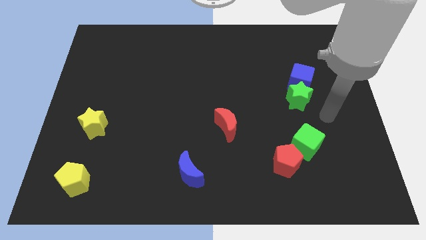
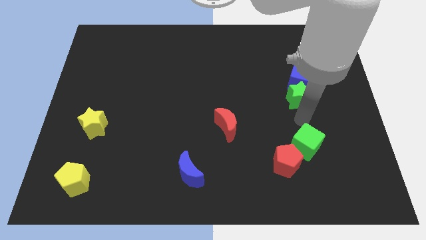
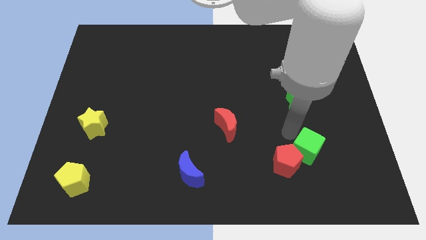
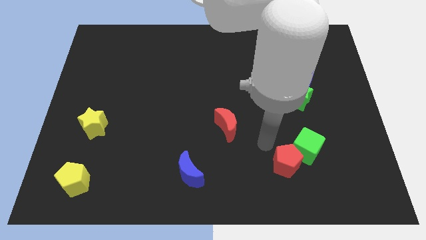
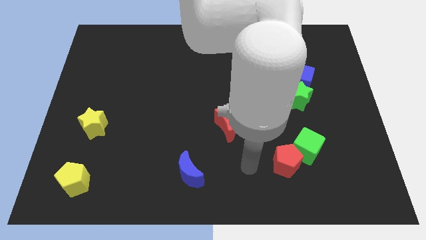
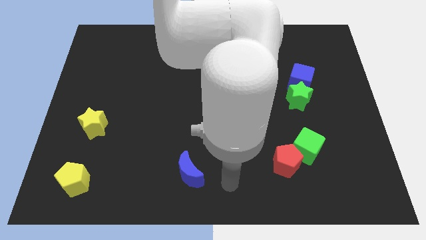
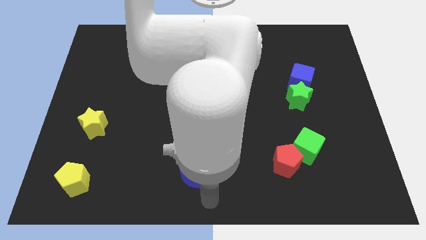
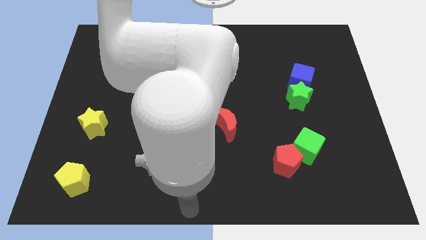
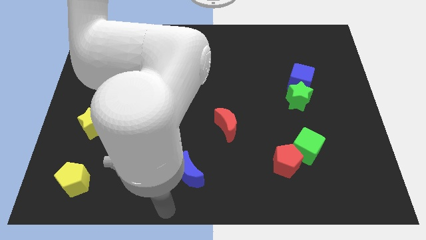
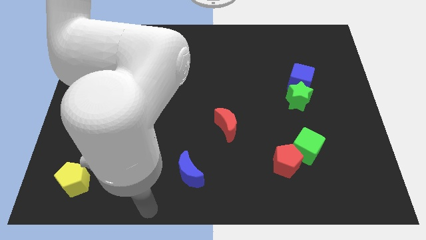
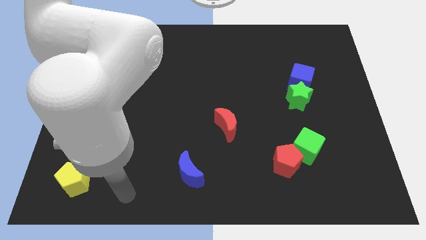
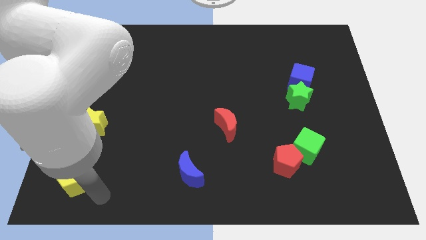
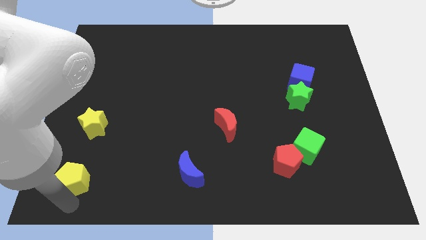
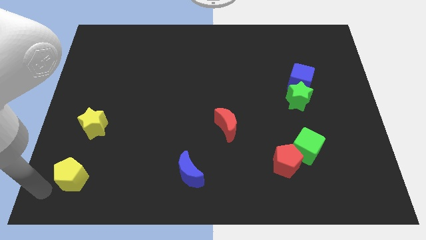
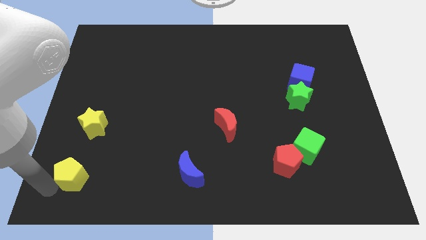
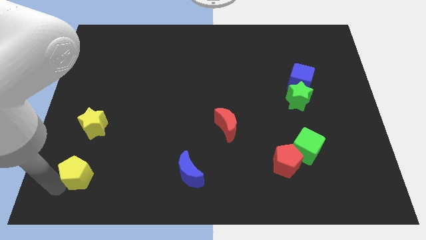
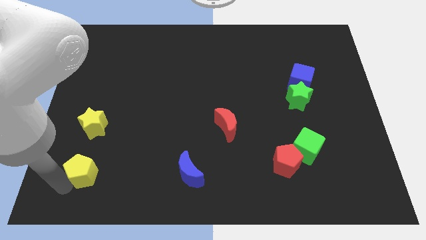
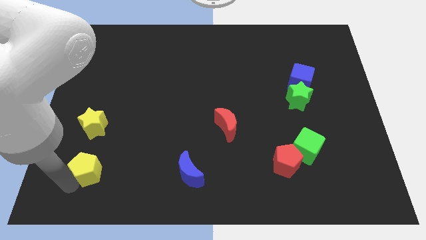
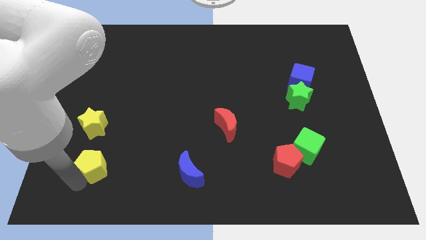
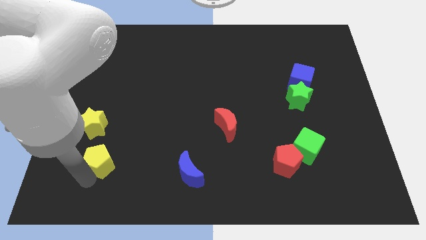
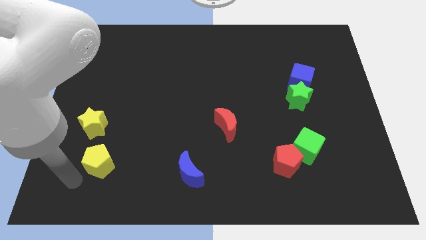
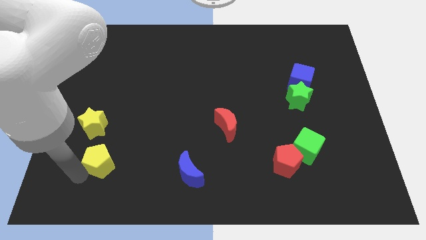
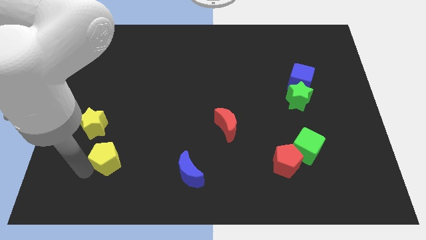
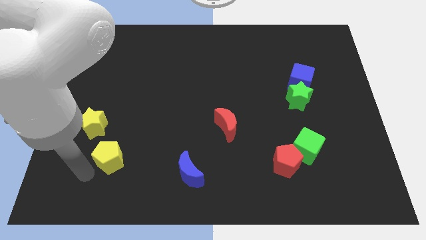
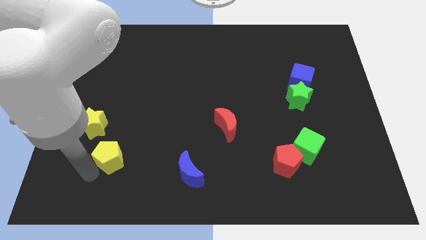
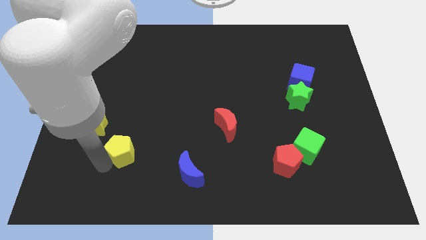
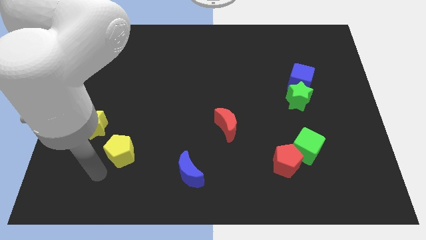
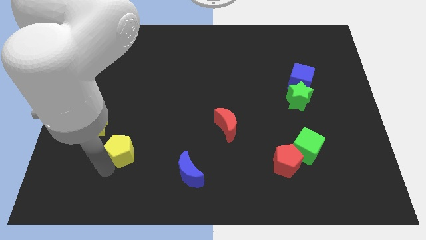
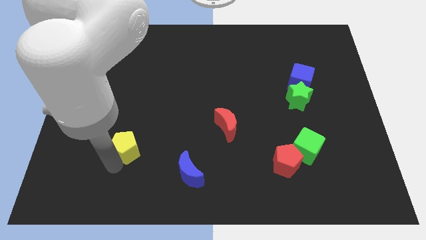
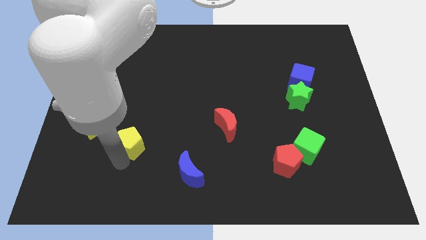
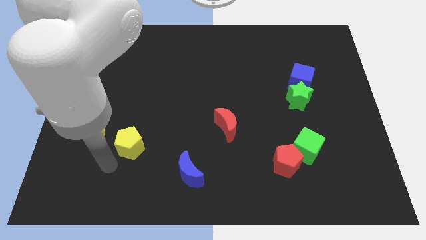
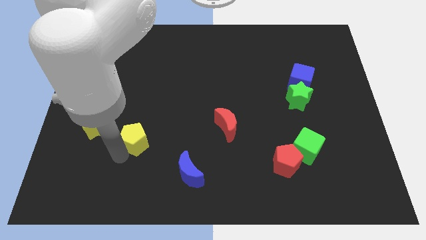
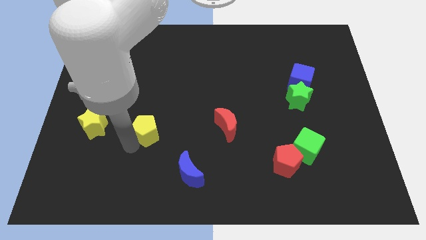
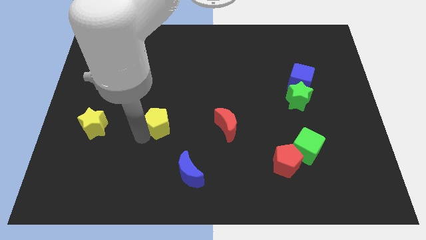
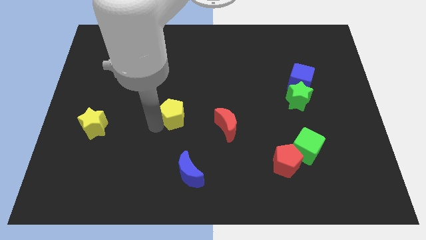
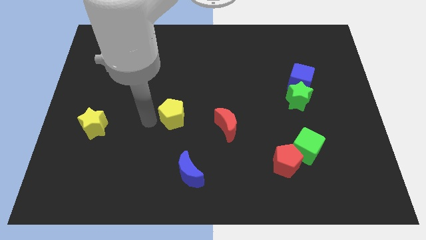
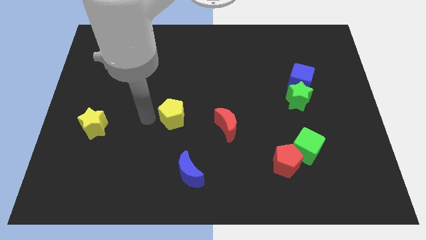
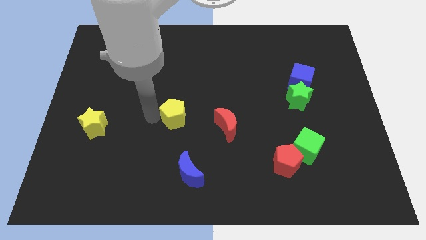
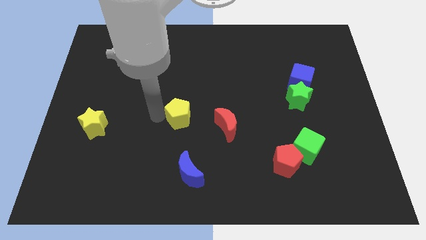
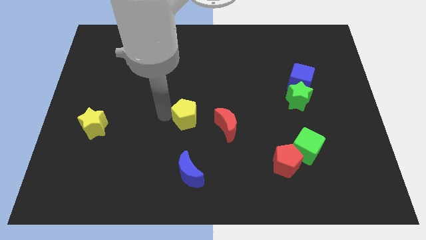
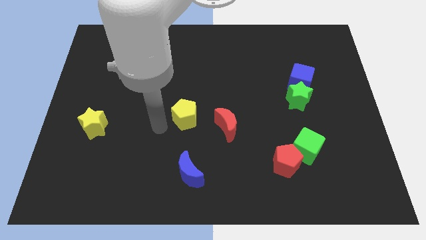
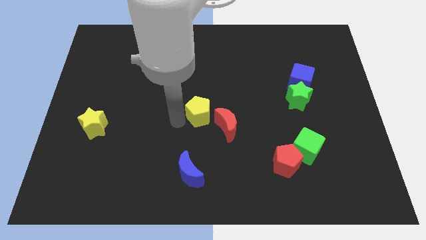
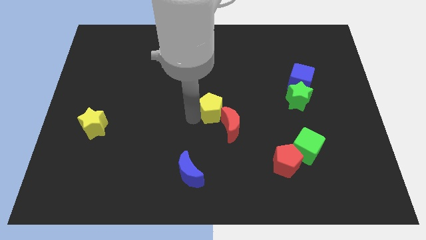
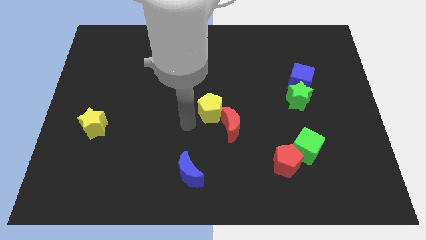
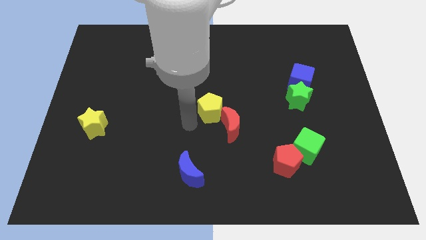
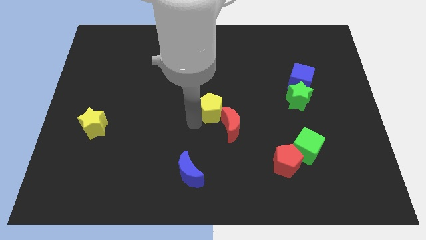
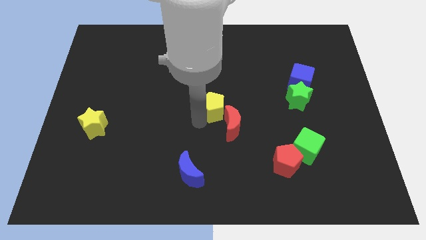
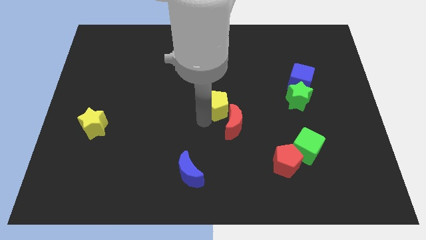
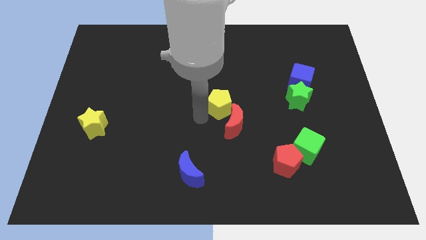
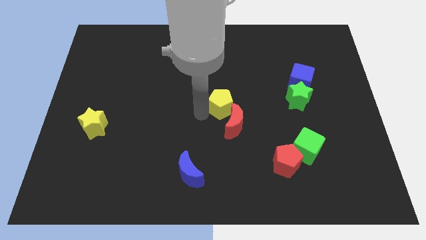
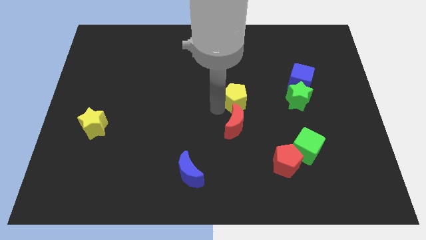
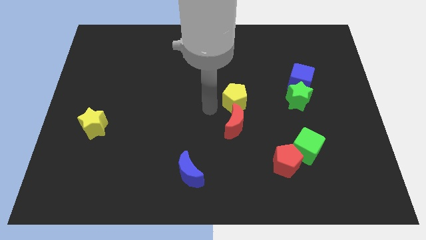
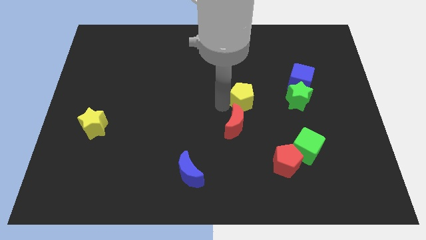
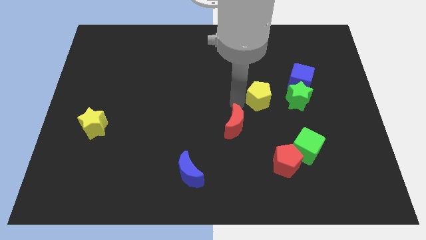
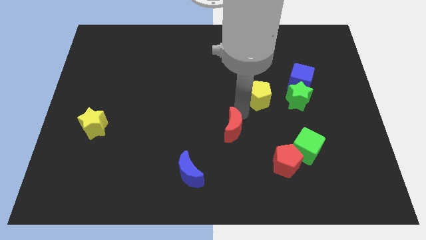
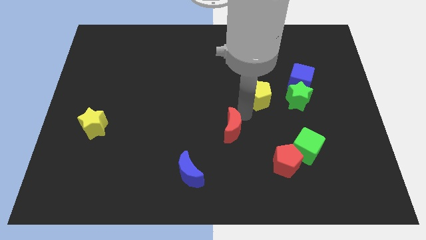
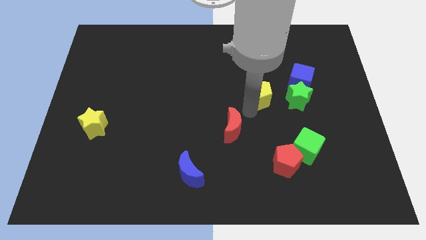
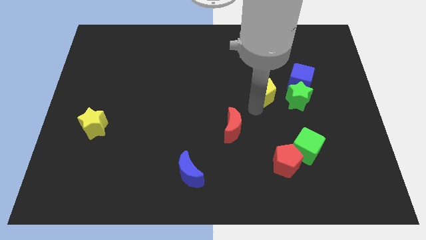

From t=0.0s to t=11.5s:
move the yellow pentagon diagonally up and to the left of the green star

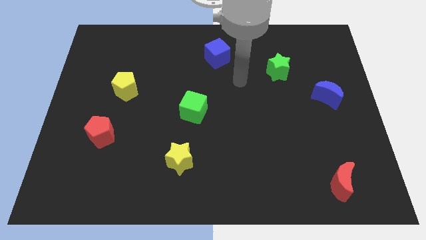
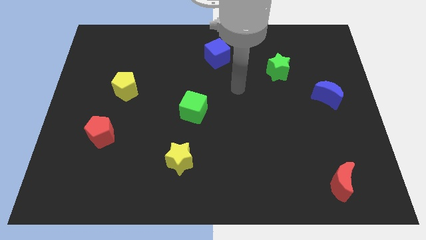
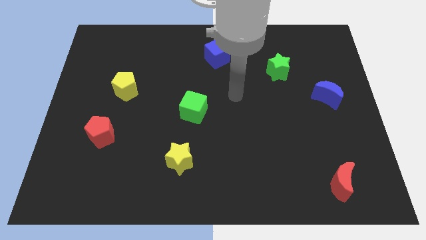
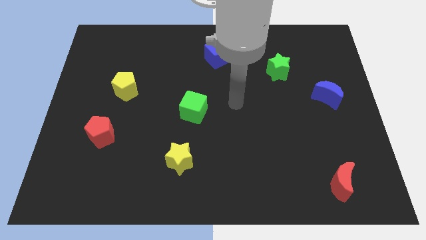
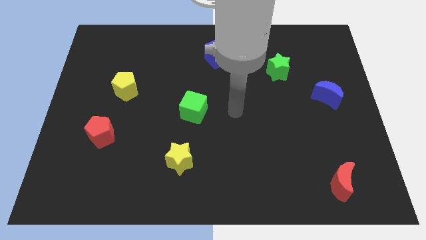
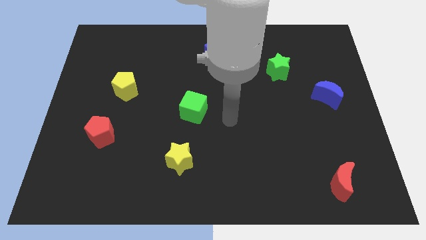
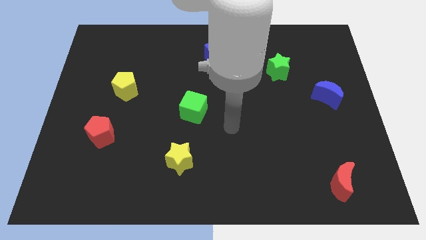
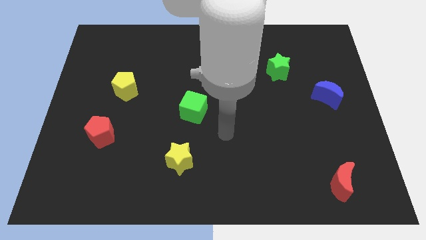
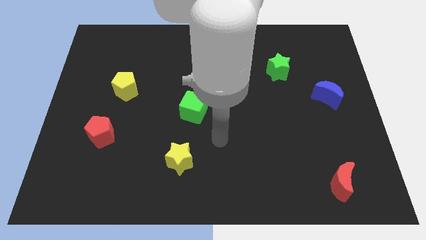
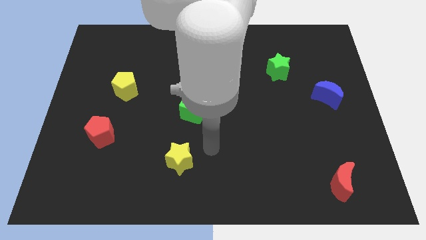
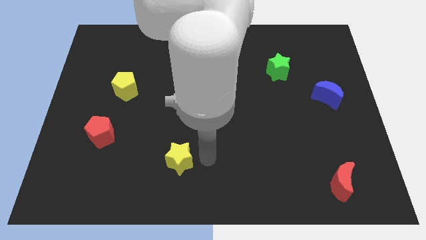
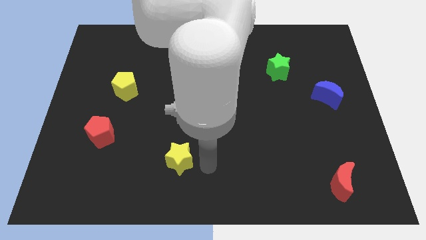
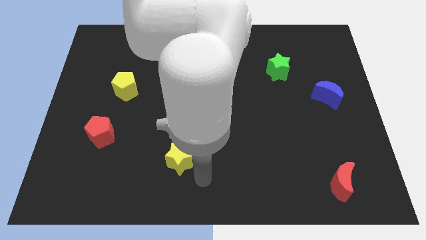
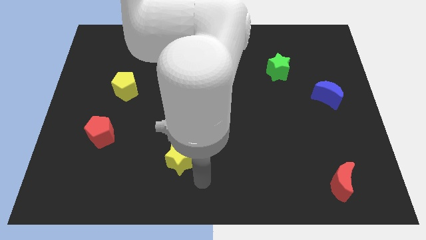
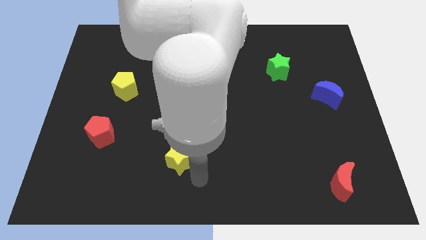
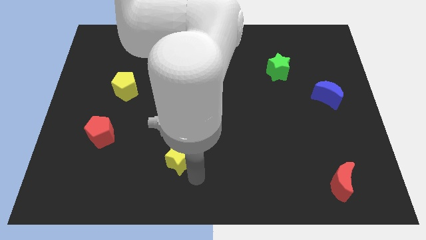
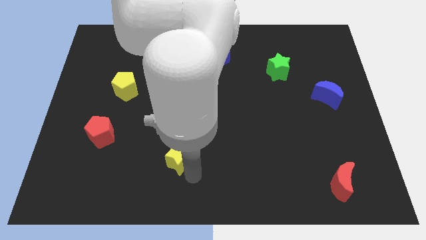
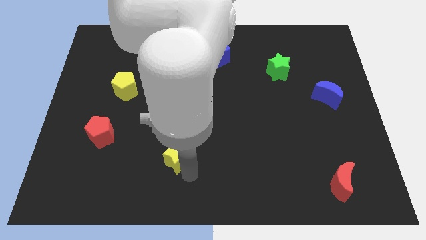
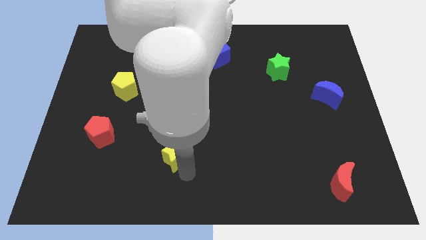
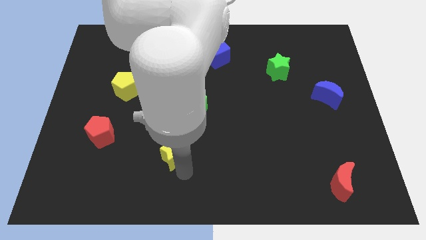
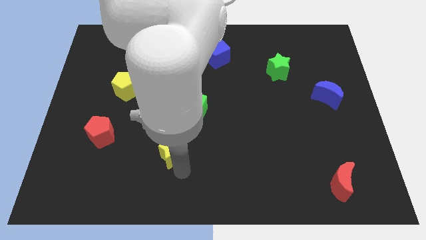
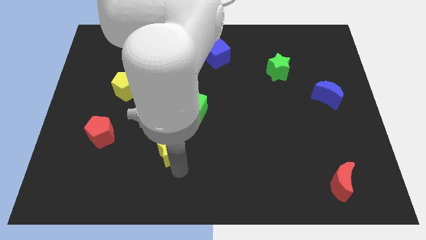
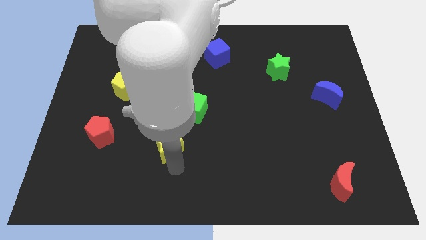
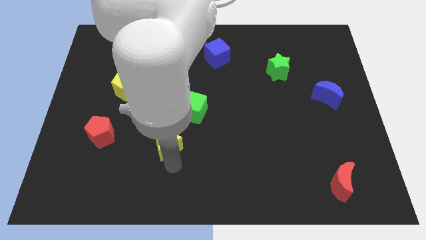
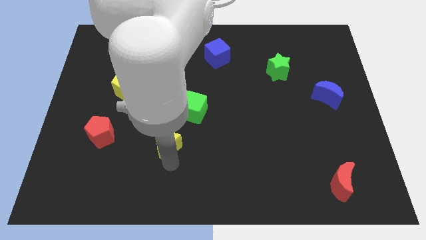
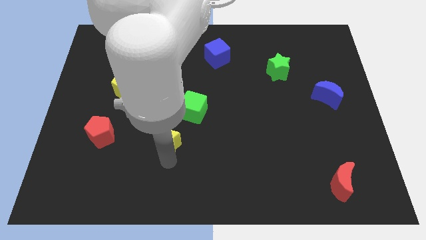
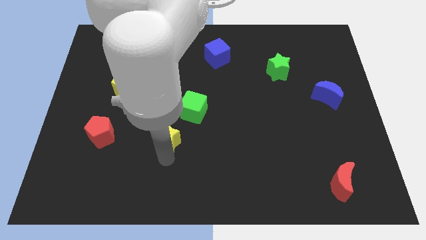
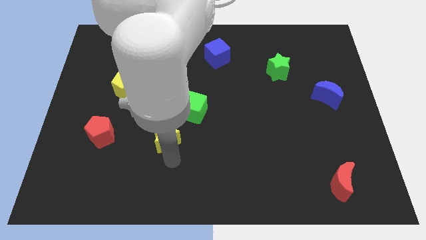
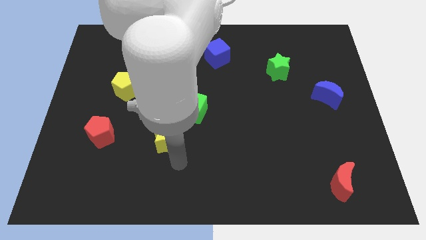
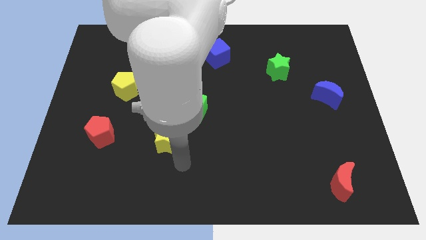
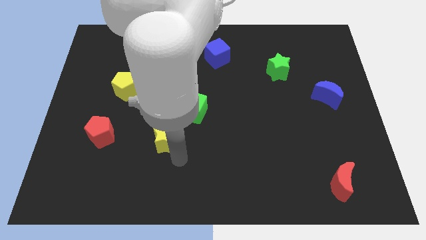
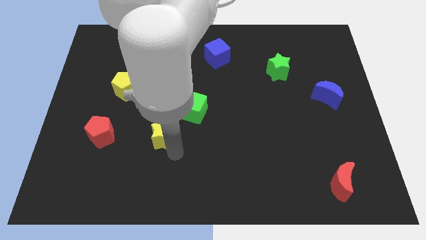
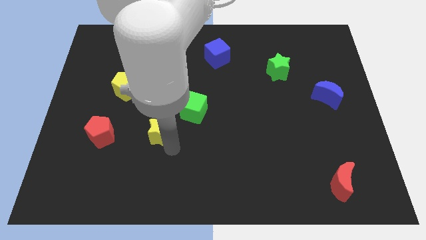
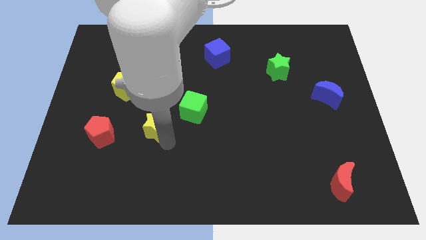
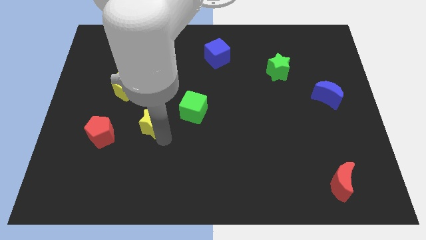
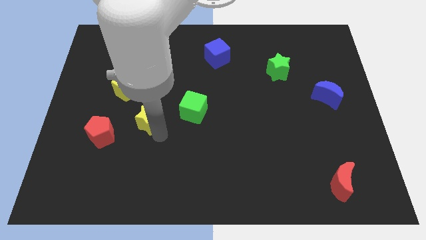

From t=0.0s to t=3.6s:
put the yellow star to the bottom right side of the yellow pentagon
